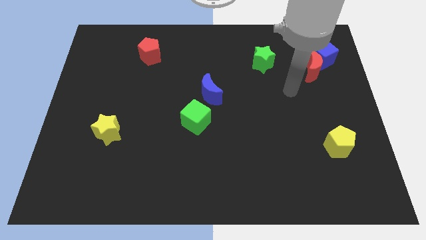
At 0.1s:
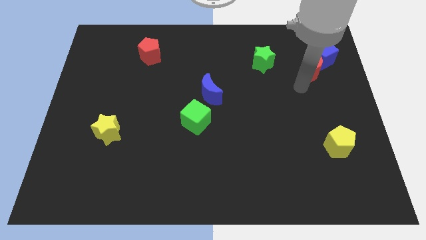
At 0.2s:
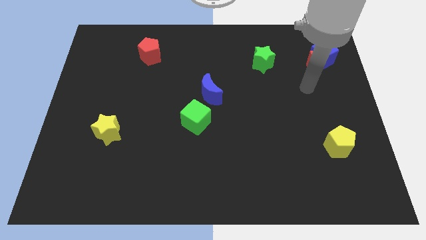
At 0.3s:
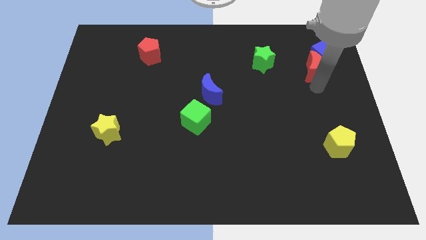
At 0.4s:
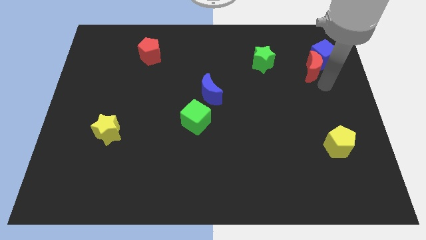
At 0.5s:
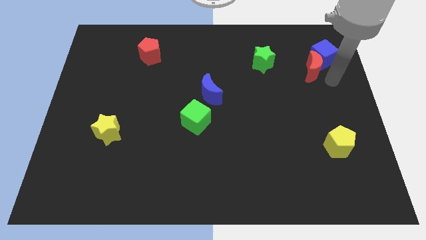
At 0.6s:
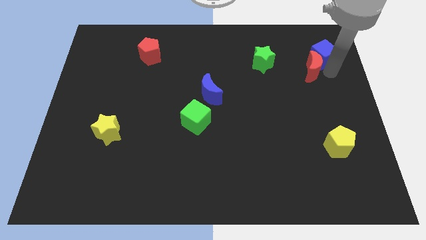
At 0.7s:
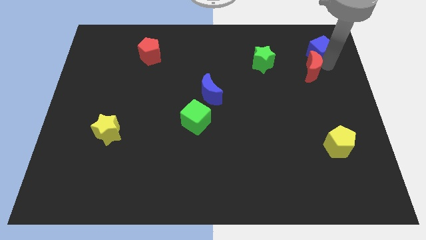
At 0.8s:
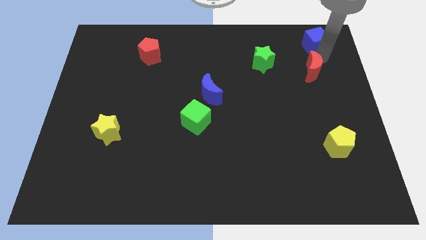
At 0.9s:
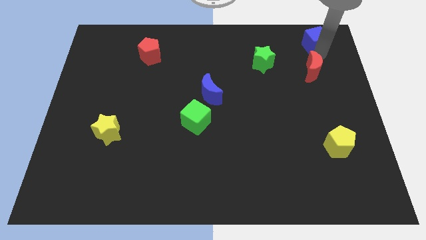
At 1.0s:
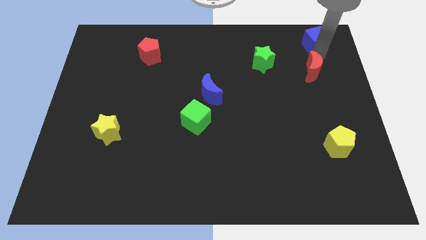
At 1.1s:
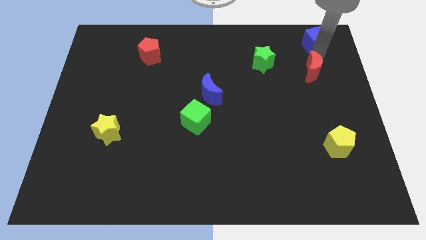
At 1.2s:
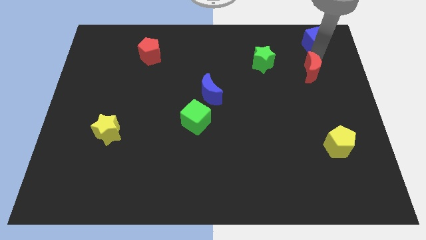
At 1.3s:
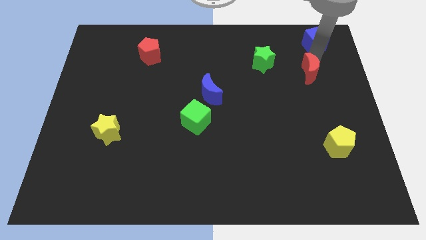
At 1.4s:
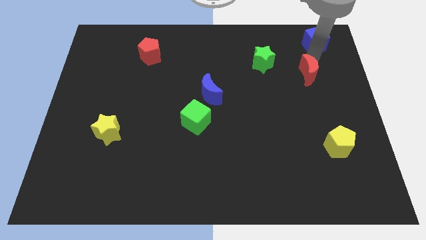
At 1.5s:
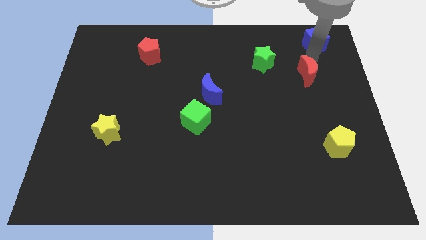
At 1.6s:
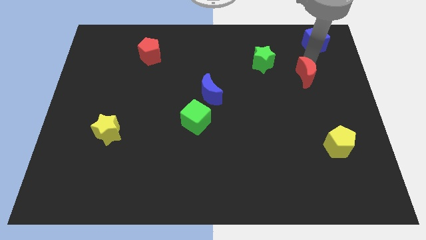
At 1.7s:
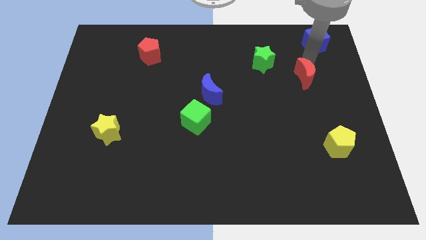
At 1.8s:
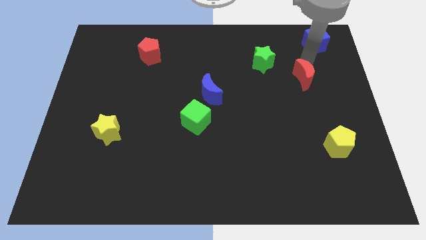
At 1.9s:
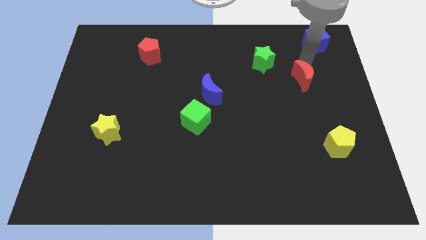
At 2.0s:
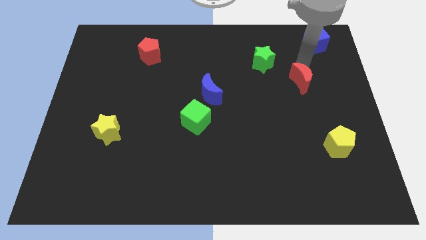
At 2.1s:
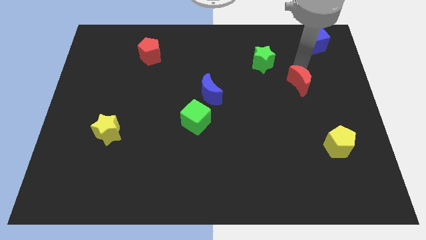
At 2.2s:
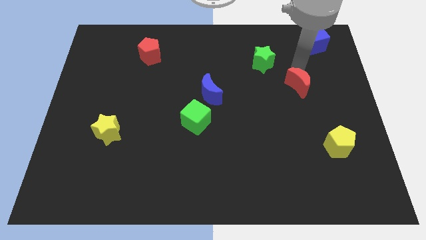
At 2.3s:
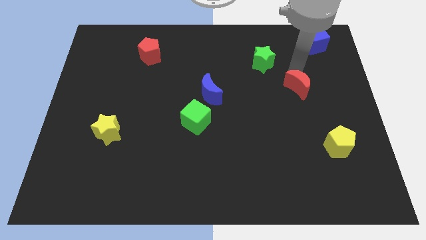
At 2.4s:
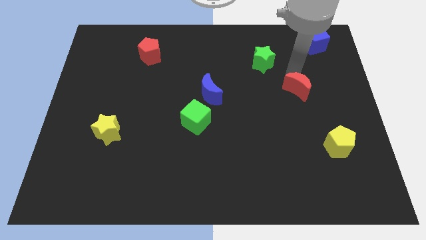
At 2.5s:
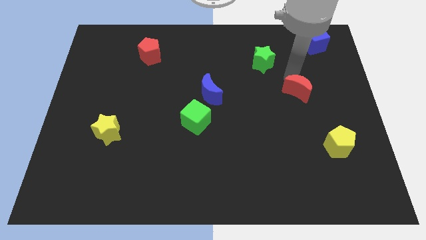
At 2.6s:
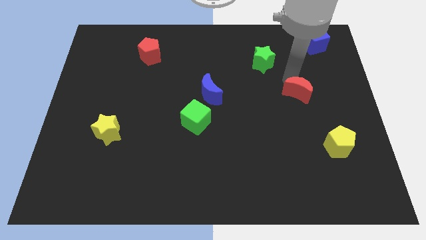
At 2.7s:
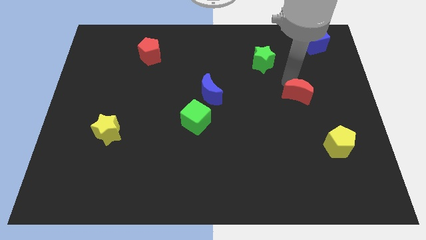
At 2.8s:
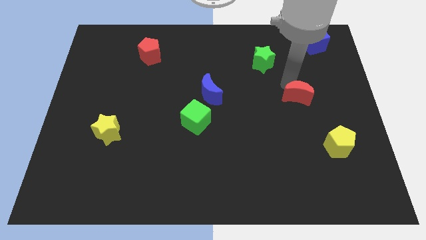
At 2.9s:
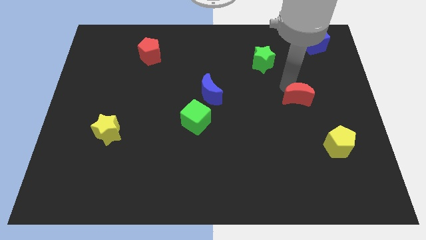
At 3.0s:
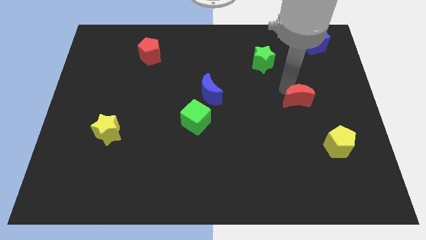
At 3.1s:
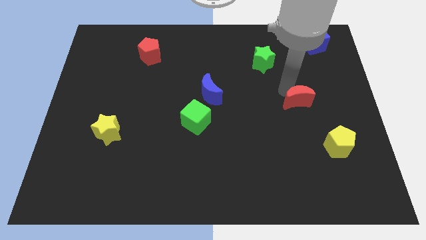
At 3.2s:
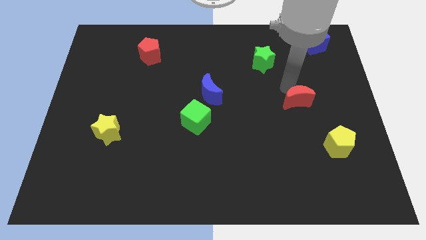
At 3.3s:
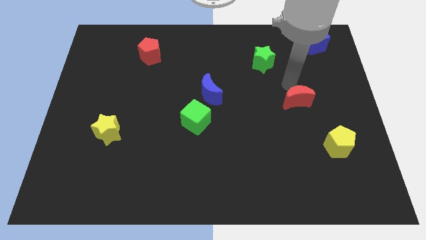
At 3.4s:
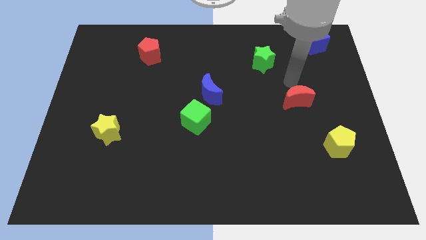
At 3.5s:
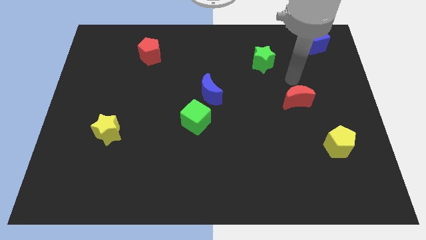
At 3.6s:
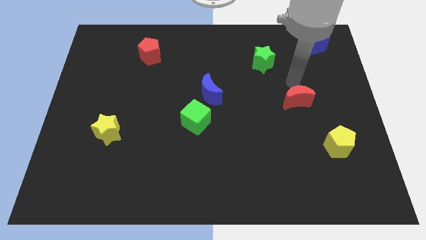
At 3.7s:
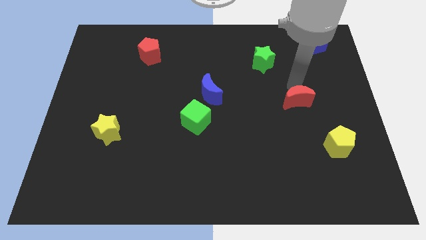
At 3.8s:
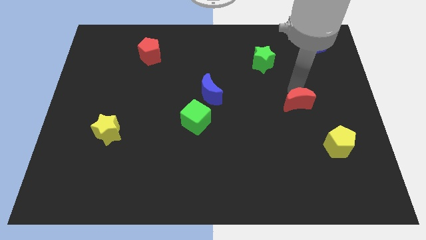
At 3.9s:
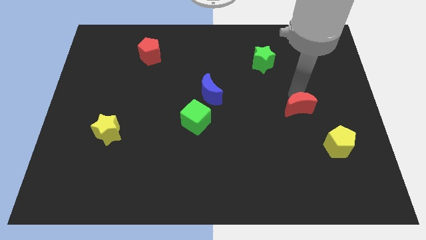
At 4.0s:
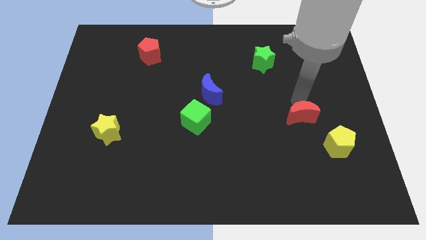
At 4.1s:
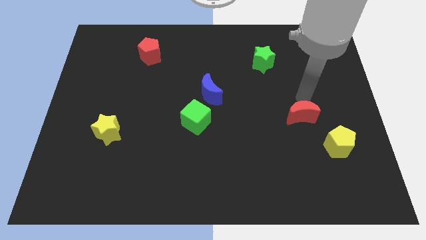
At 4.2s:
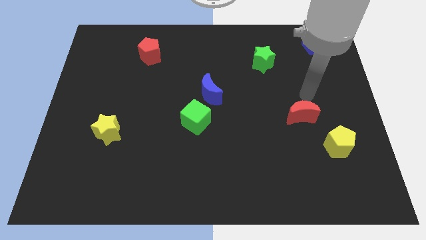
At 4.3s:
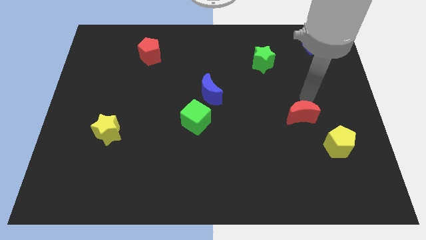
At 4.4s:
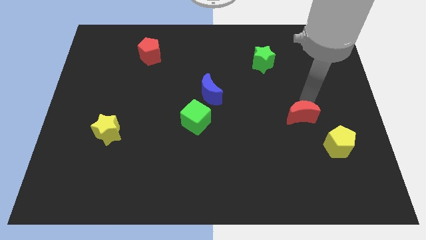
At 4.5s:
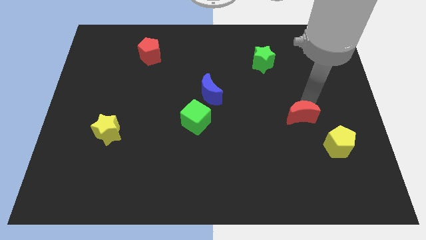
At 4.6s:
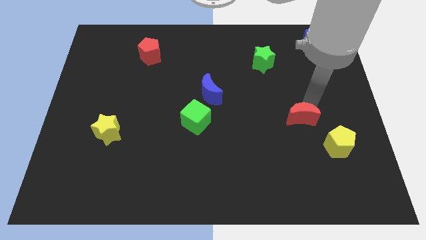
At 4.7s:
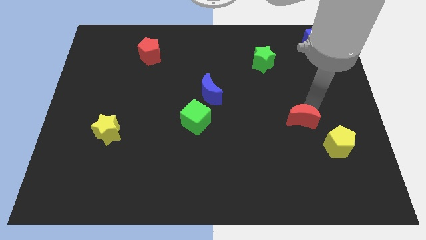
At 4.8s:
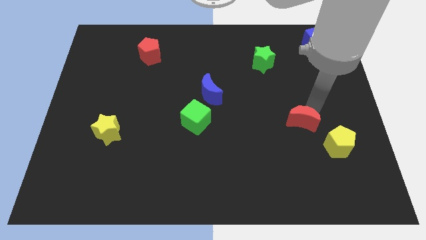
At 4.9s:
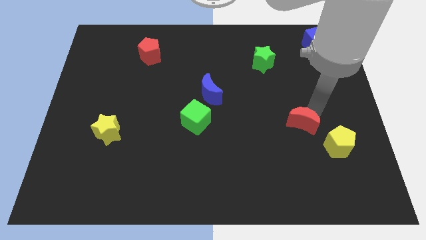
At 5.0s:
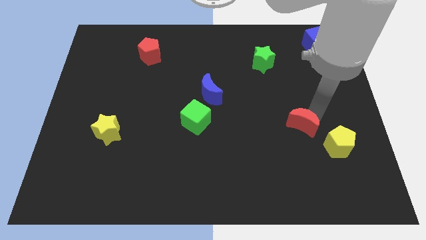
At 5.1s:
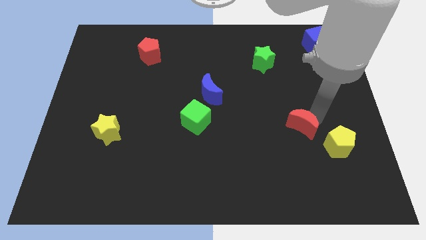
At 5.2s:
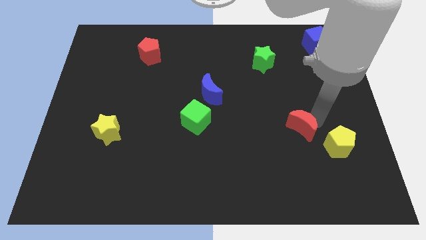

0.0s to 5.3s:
slide the red moon to the left of the yellow pentagon

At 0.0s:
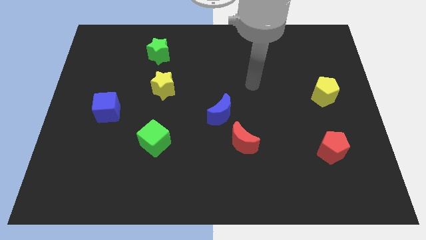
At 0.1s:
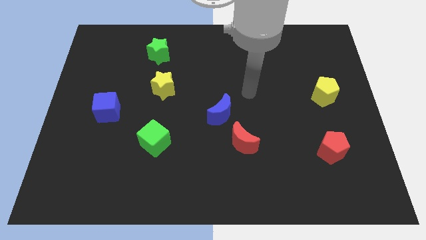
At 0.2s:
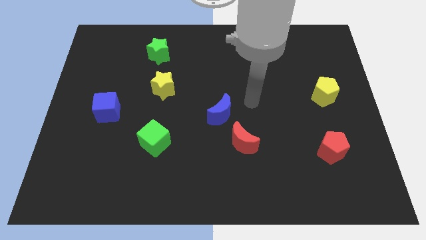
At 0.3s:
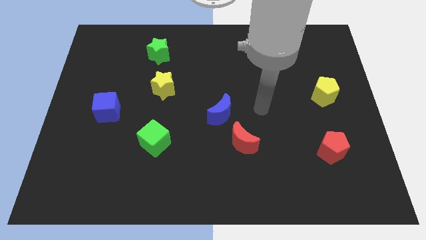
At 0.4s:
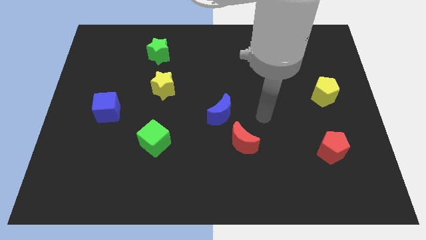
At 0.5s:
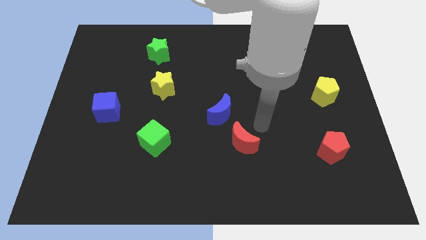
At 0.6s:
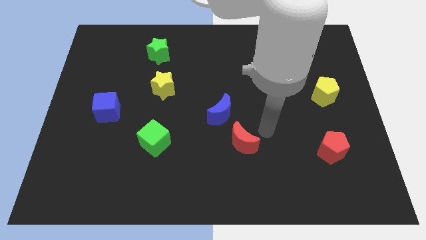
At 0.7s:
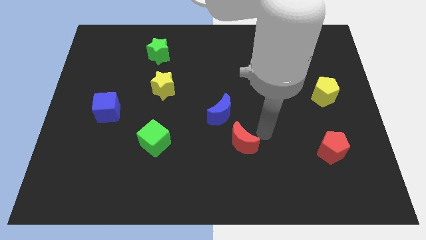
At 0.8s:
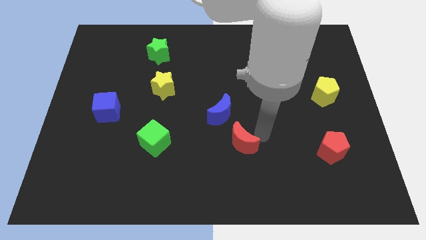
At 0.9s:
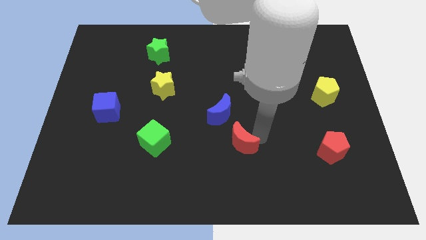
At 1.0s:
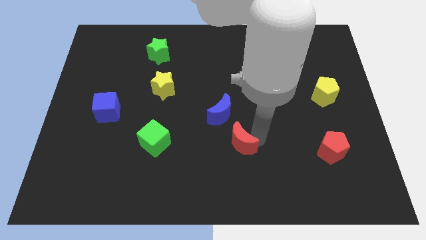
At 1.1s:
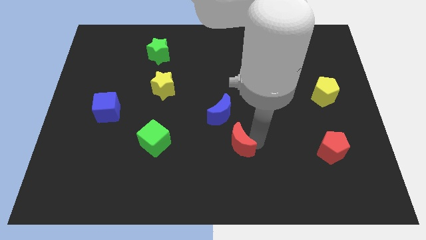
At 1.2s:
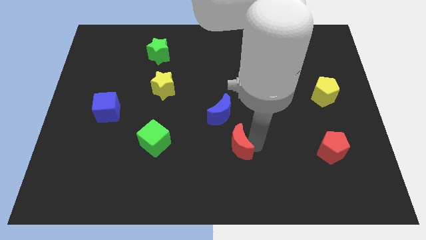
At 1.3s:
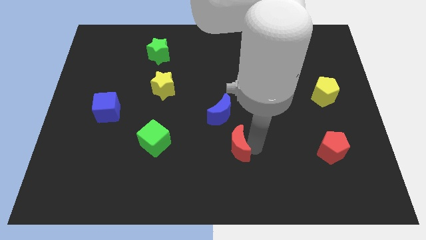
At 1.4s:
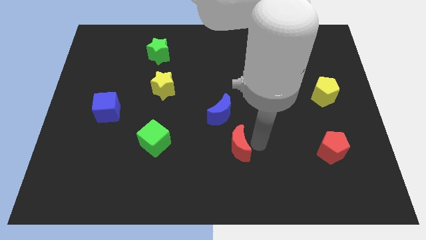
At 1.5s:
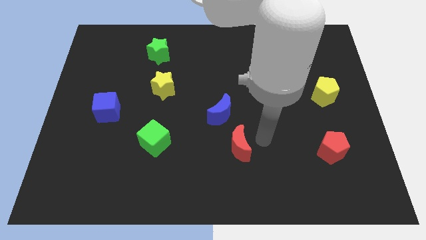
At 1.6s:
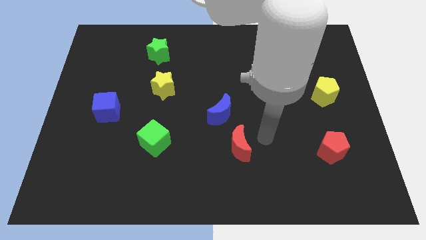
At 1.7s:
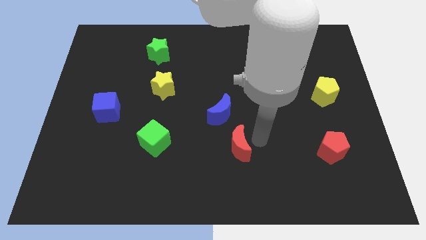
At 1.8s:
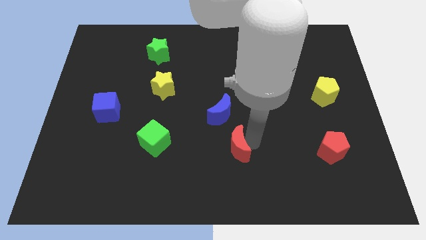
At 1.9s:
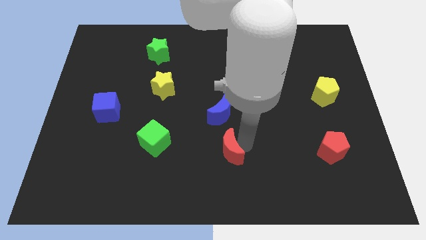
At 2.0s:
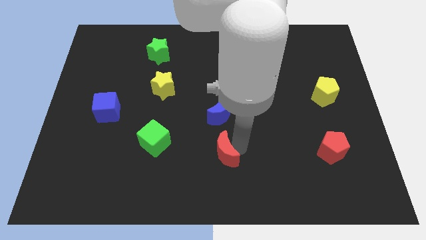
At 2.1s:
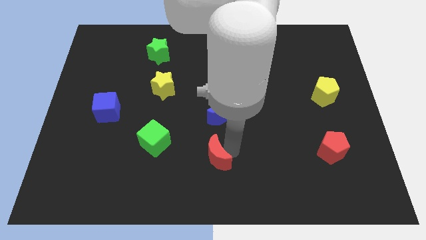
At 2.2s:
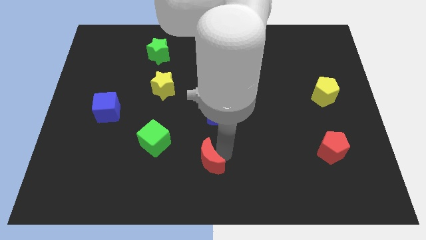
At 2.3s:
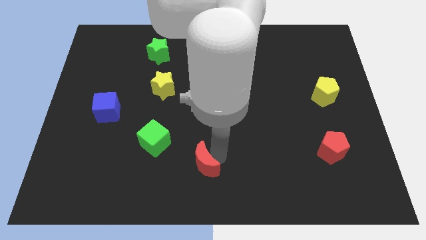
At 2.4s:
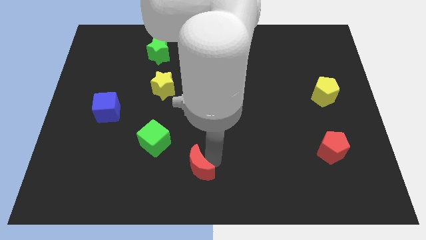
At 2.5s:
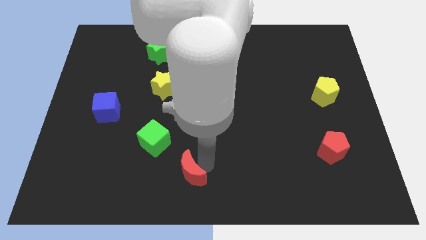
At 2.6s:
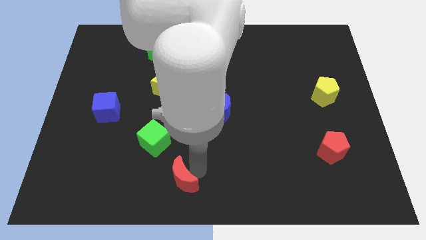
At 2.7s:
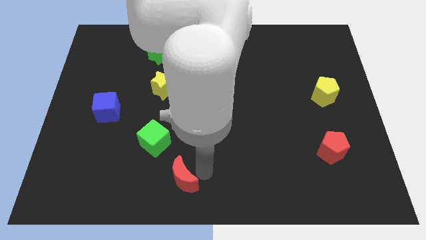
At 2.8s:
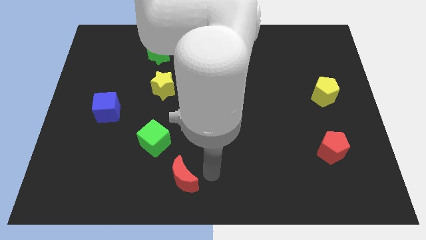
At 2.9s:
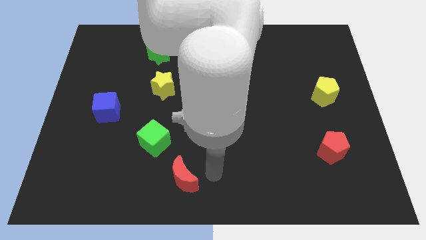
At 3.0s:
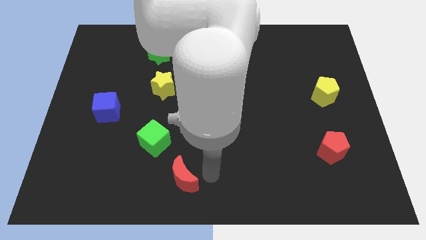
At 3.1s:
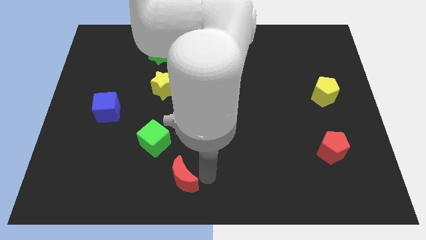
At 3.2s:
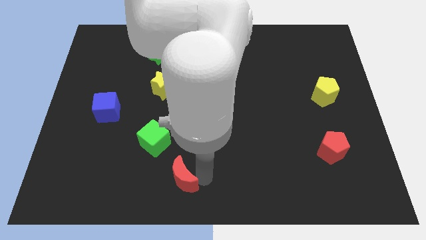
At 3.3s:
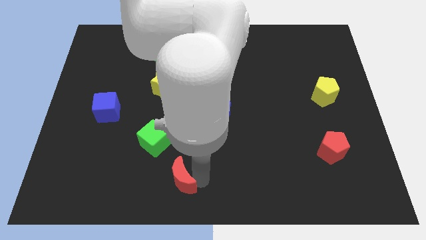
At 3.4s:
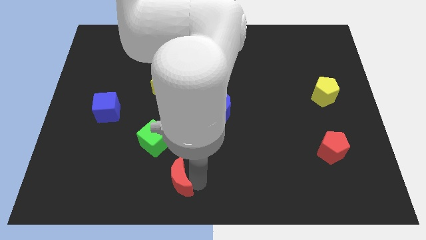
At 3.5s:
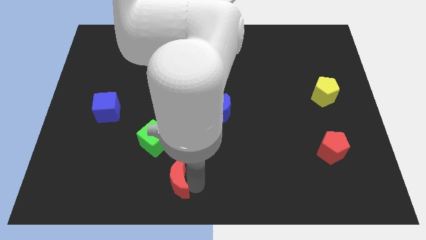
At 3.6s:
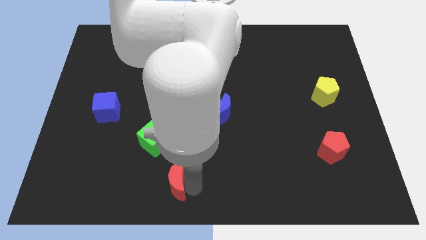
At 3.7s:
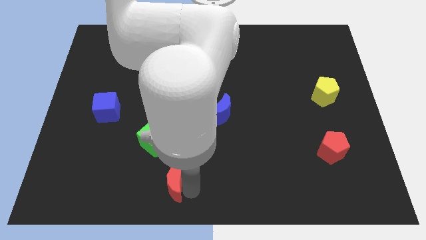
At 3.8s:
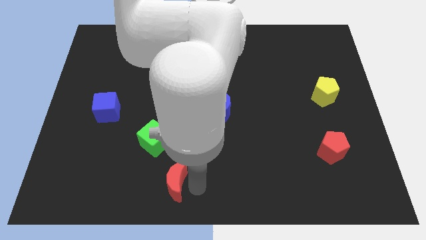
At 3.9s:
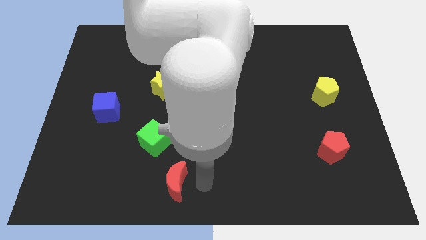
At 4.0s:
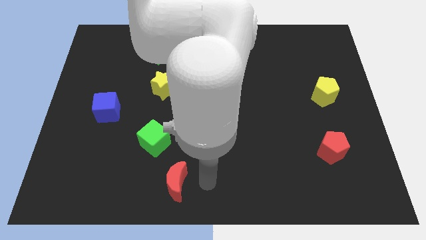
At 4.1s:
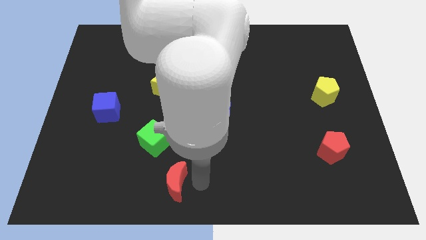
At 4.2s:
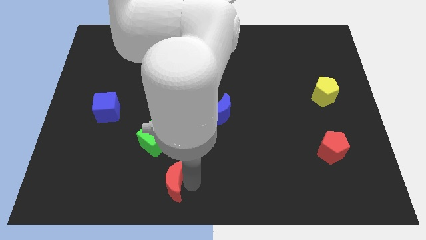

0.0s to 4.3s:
move the red moon below the green cube
